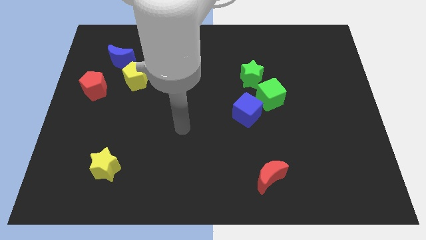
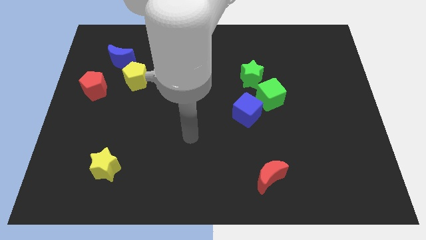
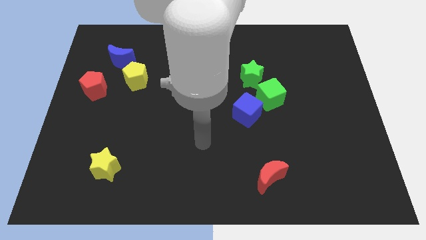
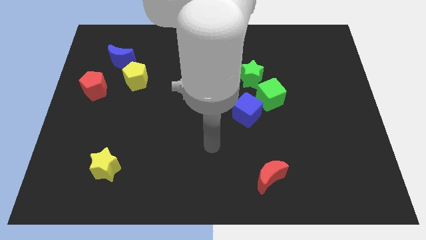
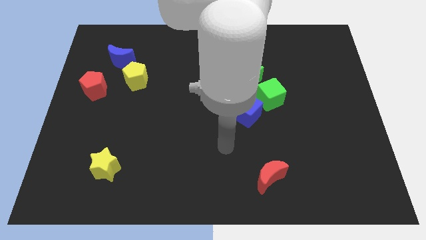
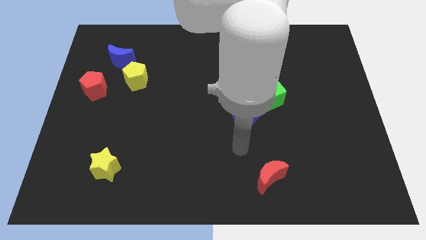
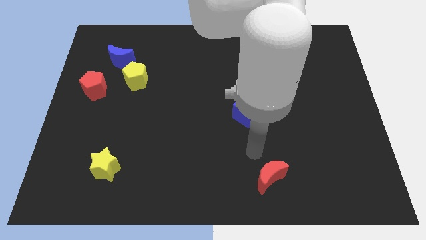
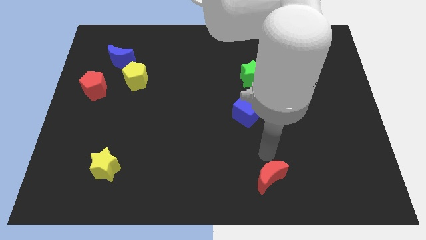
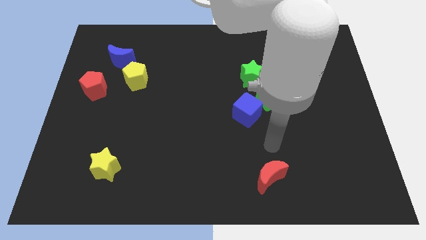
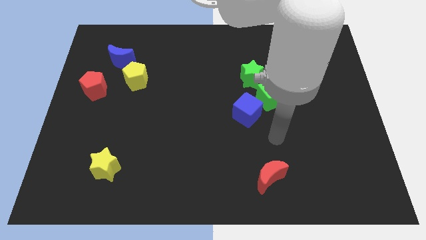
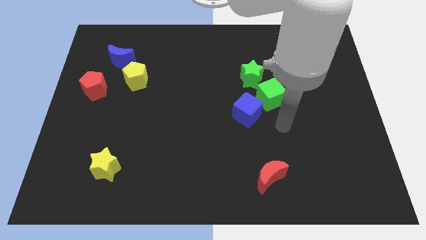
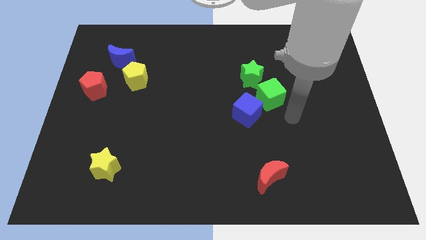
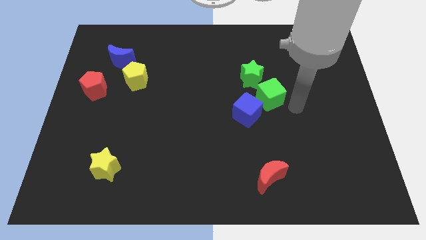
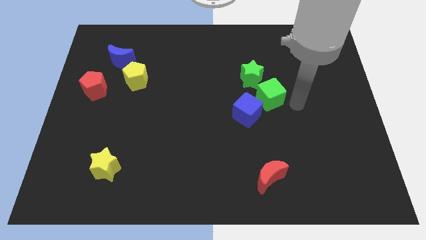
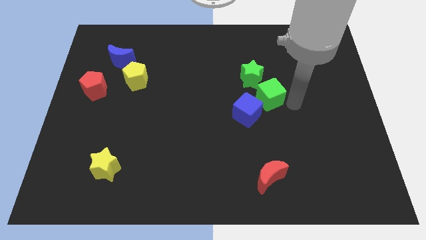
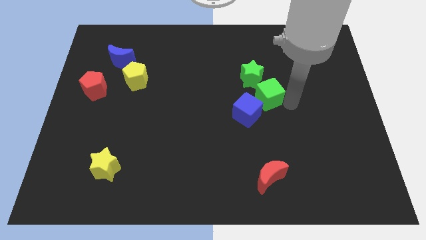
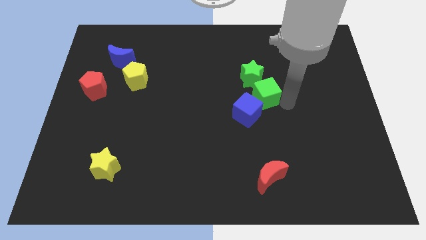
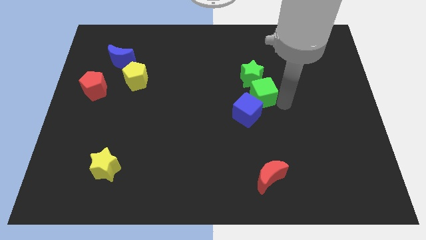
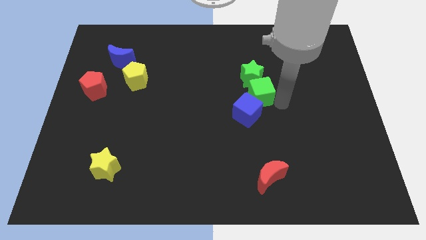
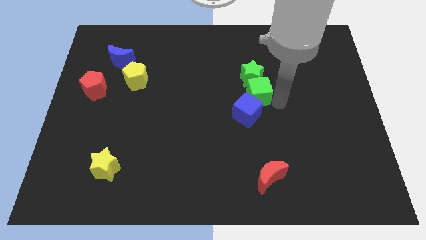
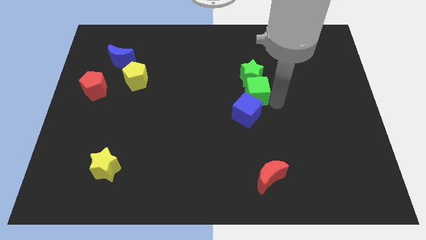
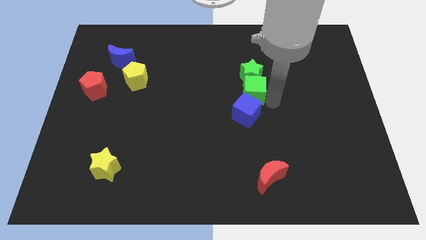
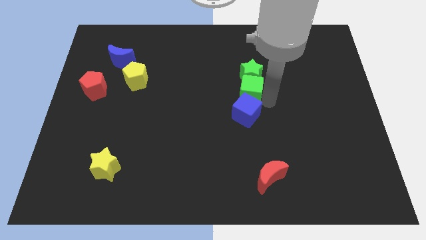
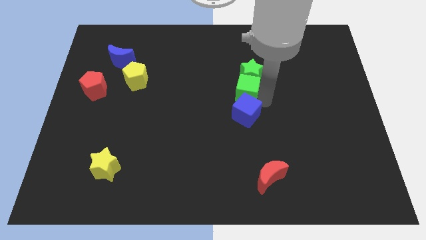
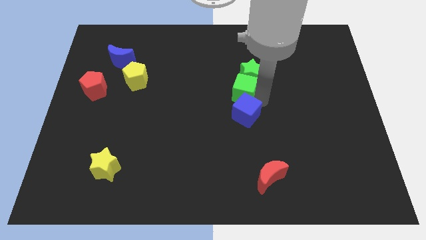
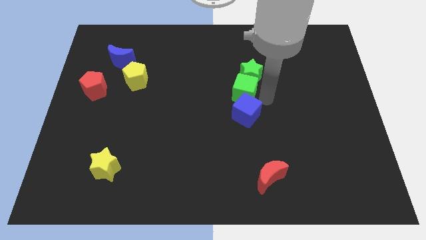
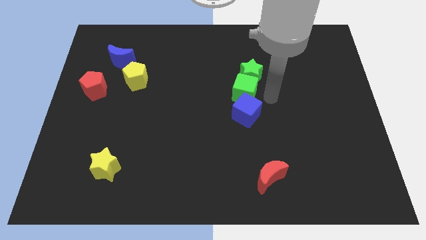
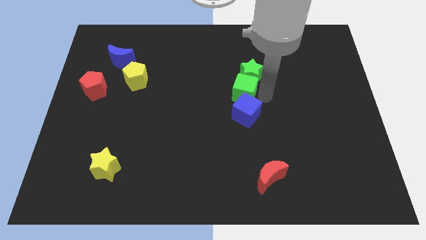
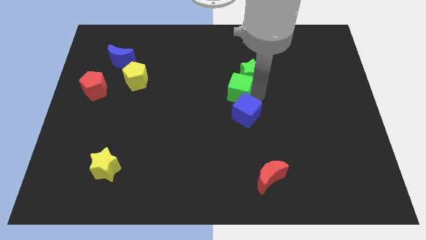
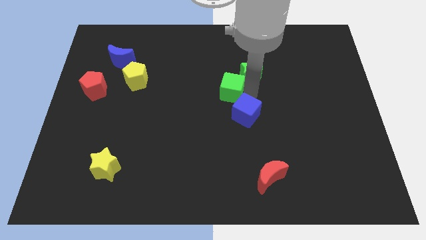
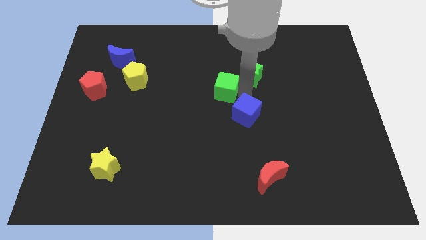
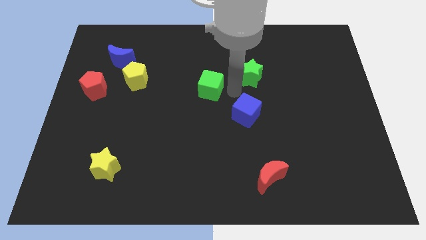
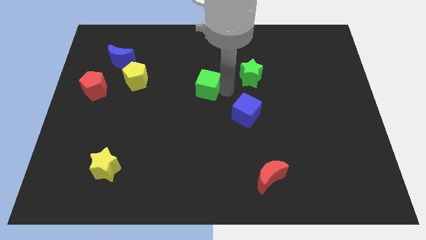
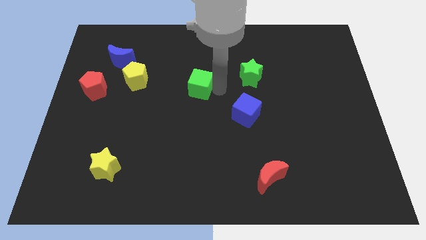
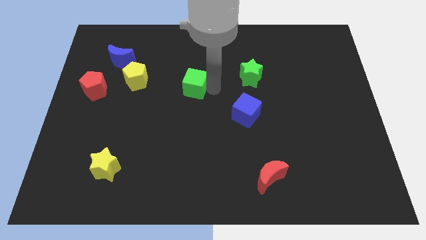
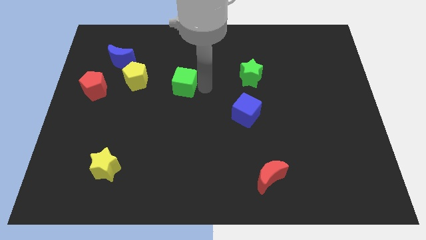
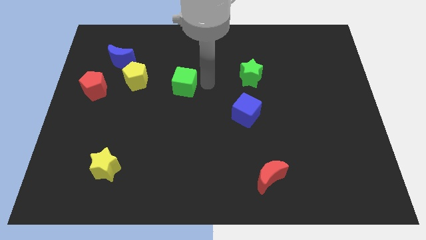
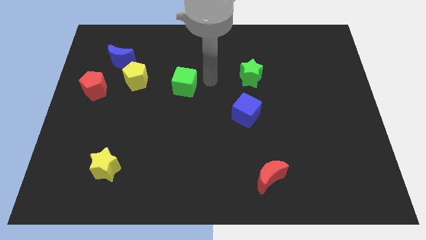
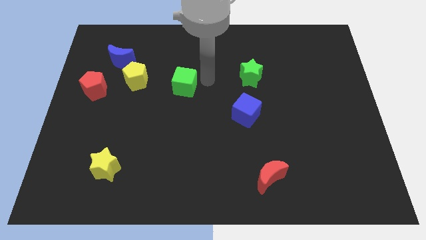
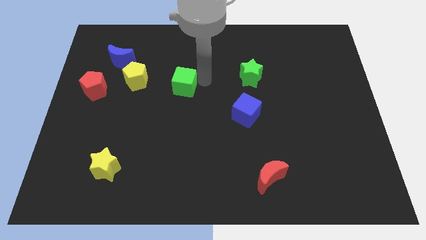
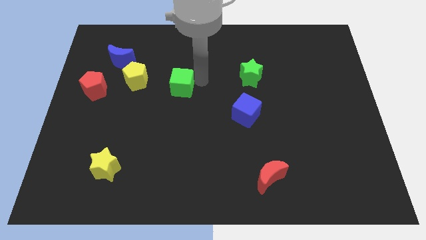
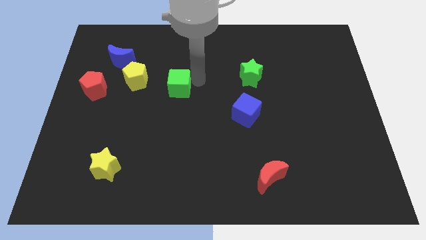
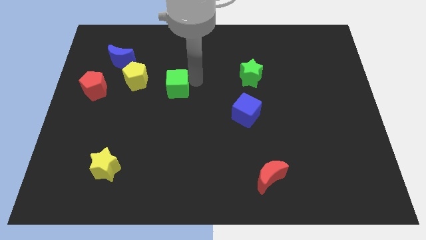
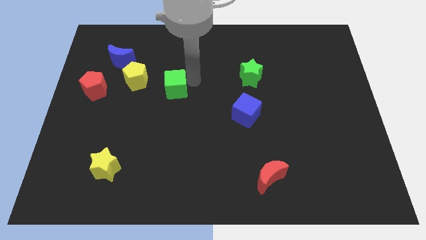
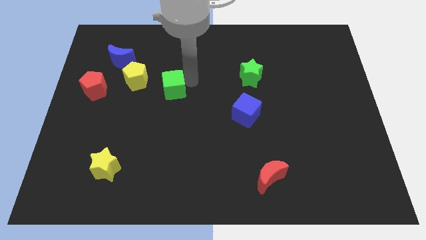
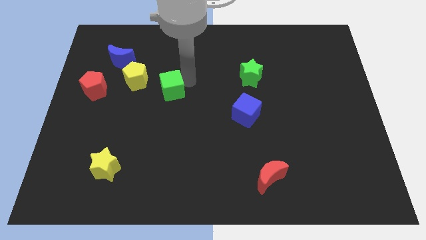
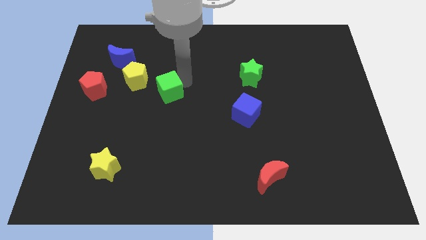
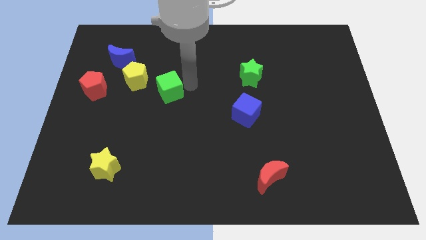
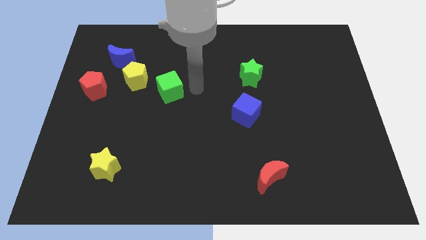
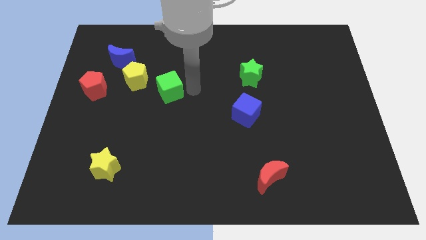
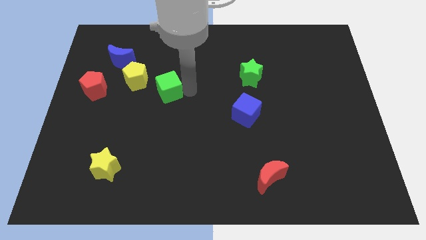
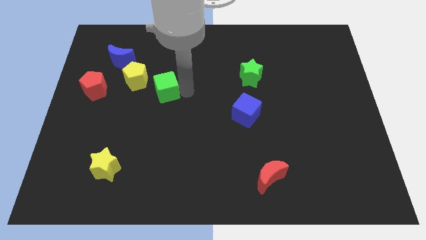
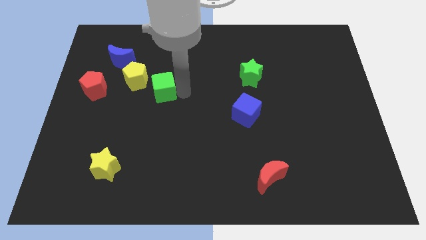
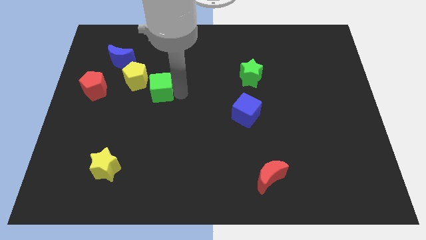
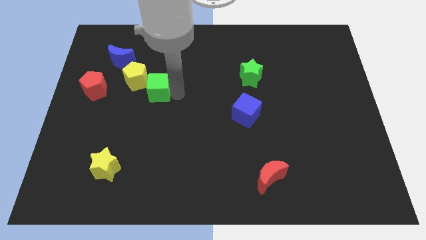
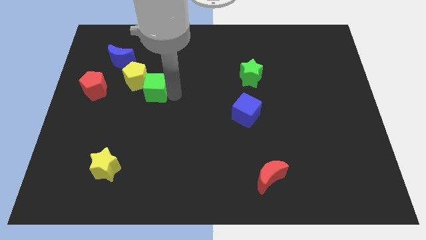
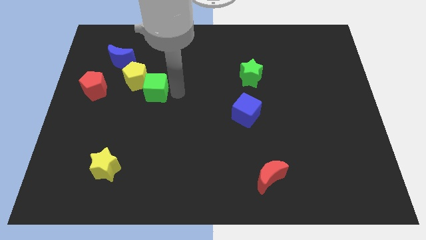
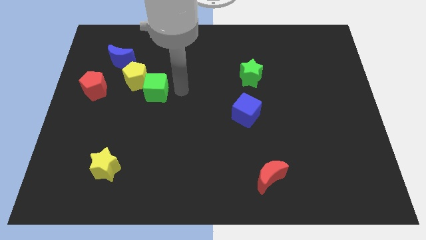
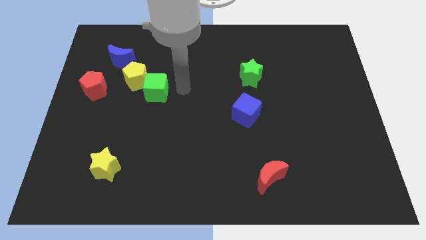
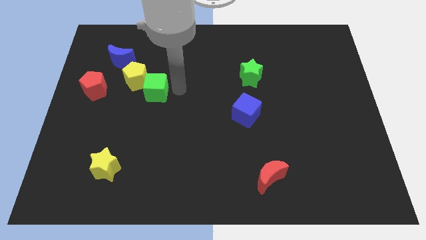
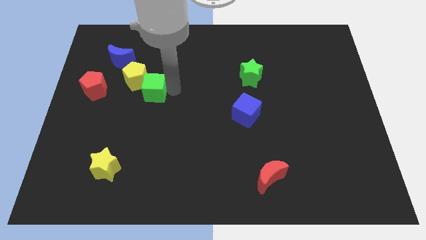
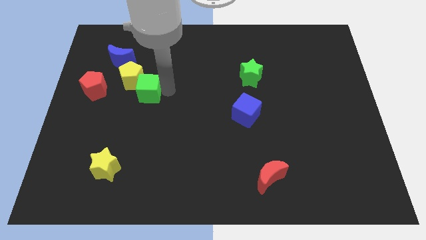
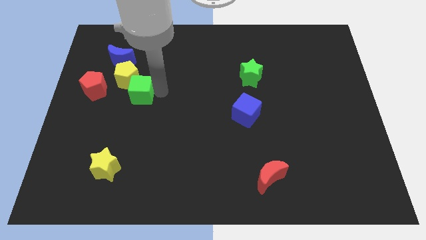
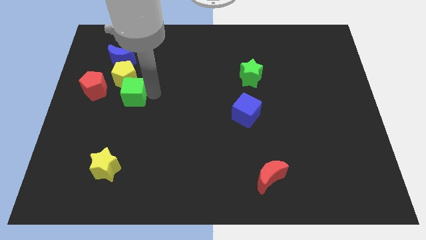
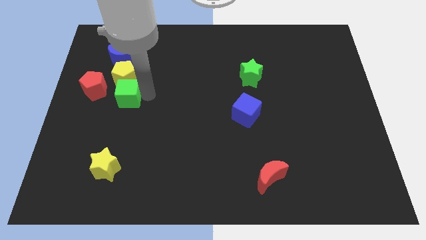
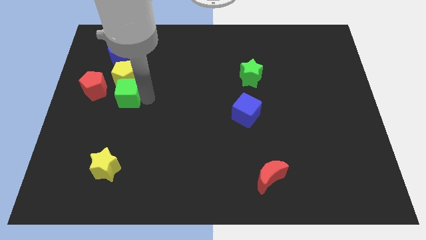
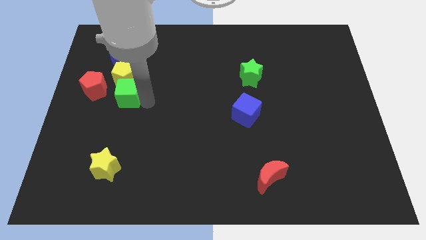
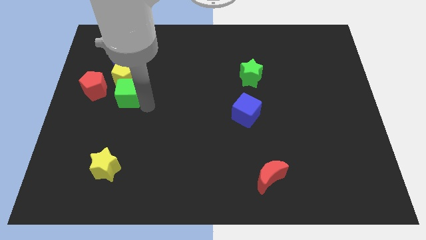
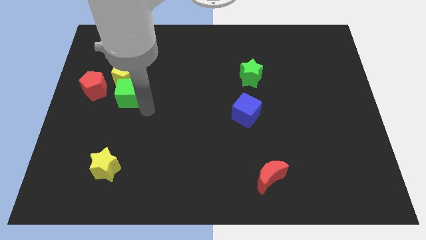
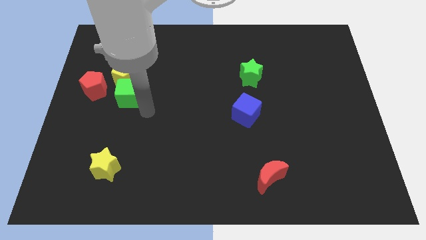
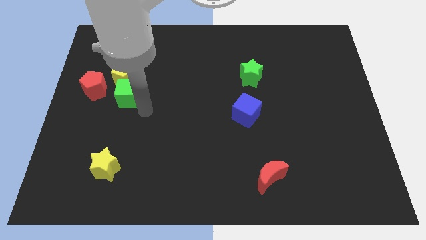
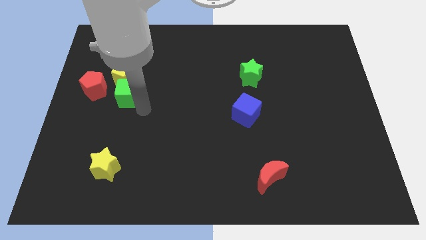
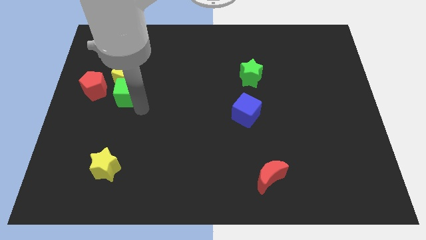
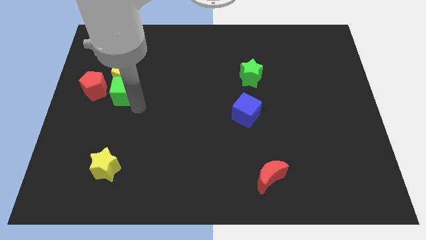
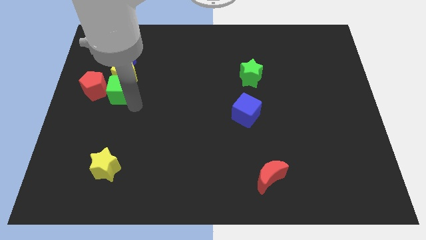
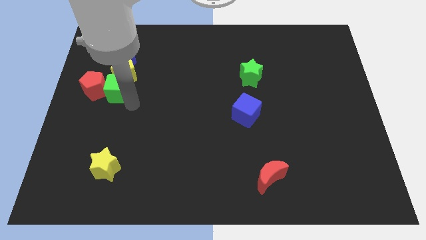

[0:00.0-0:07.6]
push the green cube close to the red pentagon

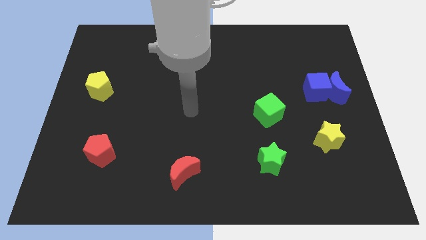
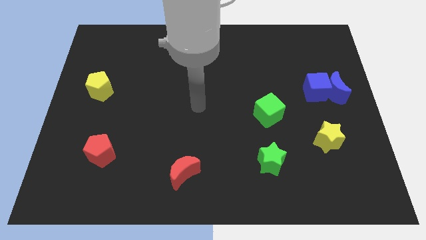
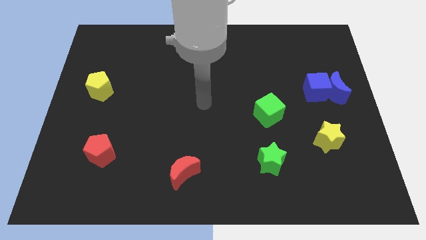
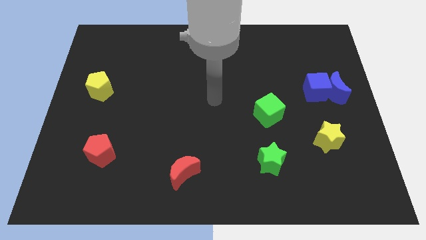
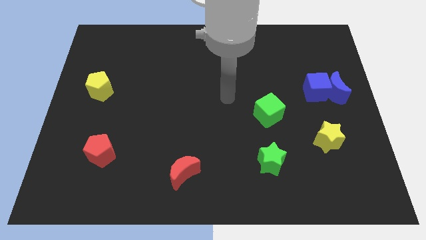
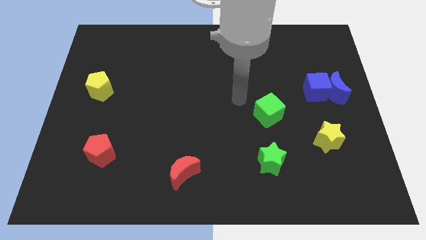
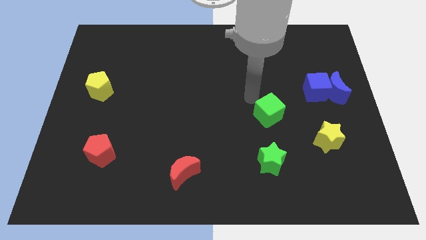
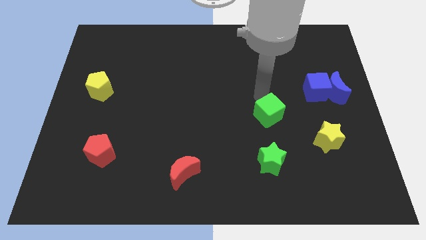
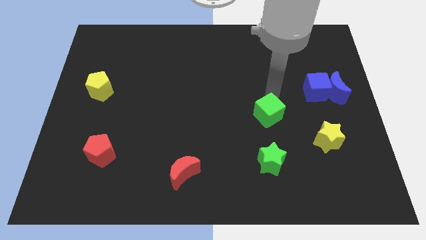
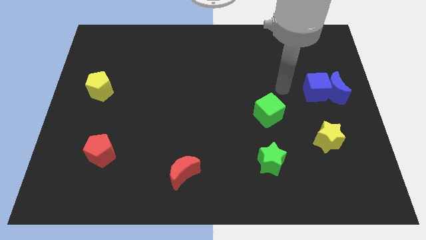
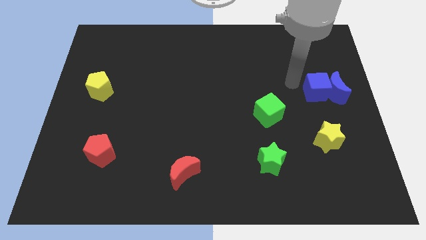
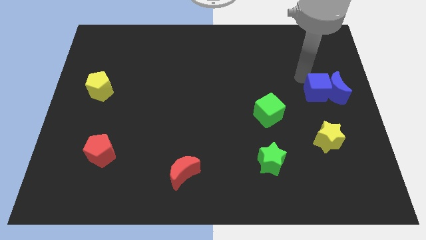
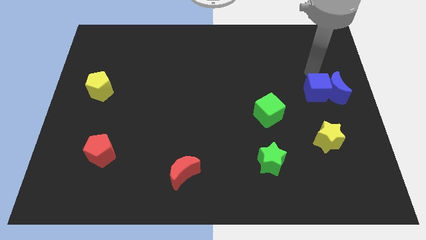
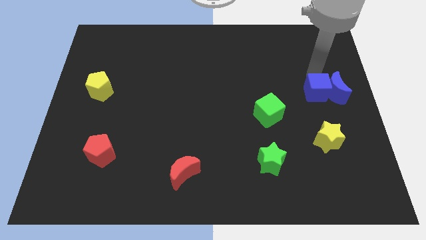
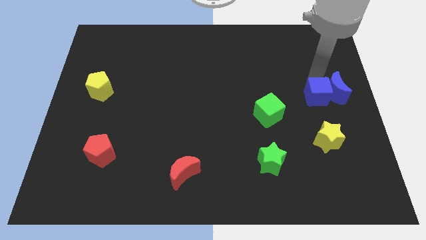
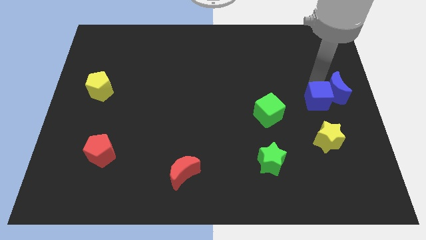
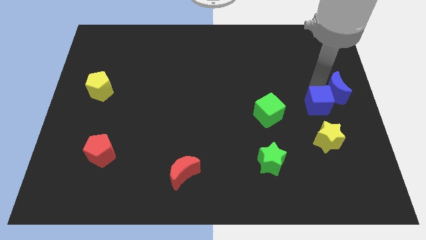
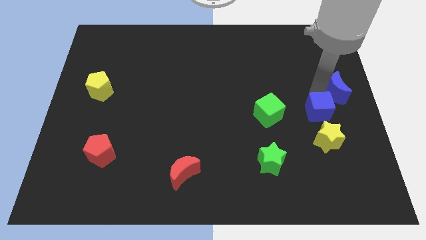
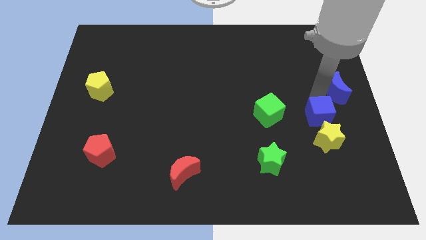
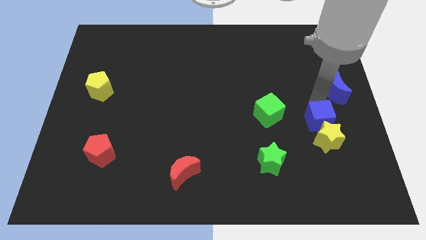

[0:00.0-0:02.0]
move the blue cube close to the yellow star
